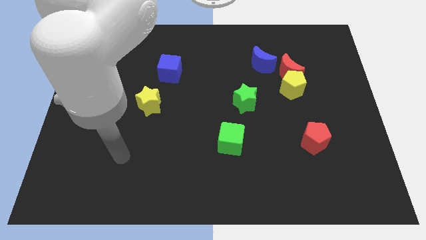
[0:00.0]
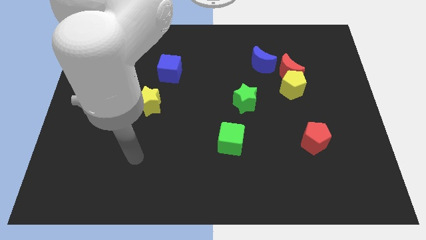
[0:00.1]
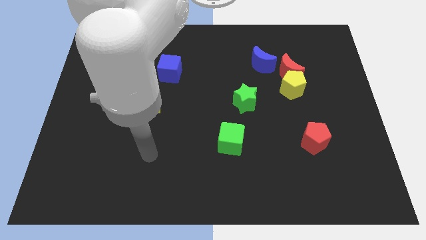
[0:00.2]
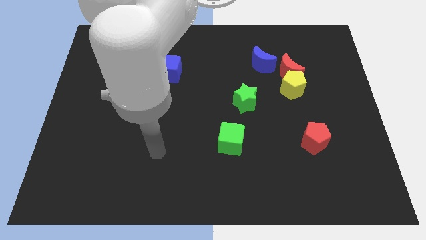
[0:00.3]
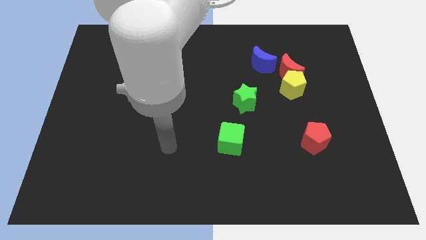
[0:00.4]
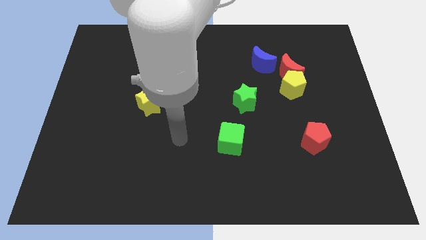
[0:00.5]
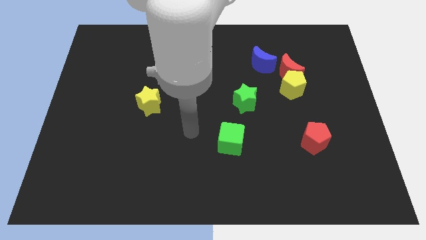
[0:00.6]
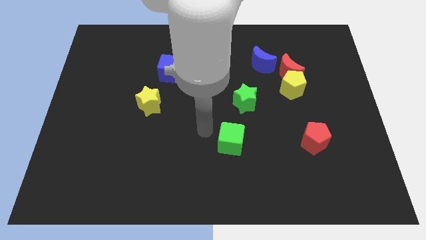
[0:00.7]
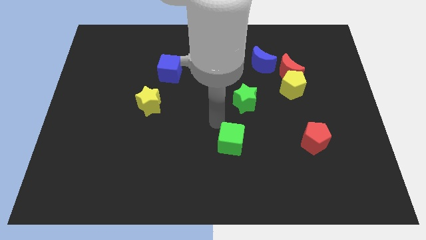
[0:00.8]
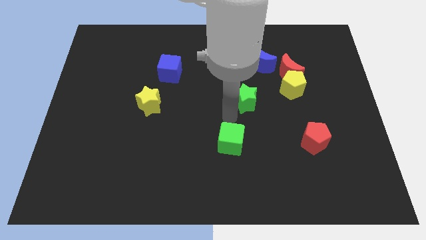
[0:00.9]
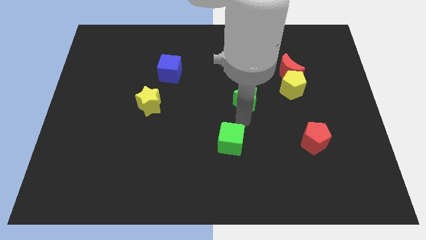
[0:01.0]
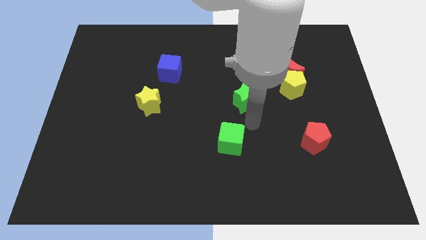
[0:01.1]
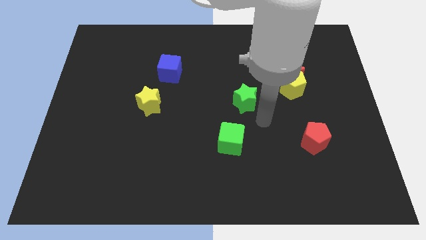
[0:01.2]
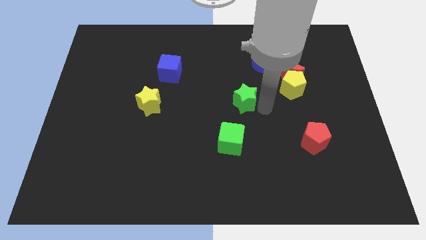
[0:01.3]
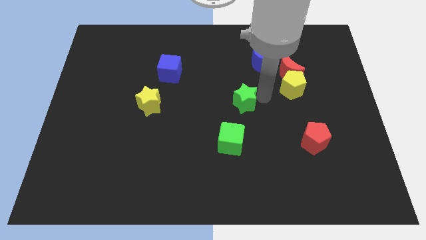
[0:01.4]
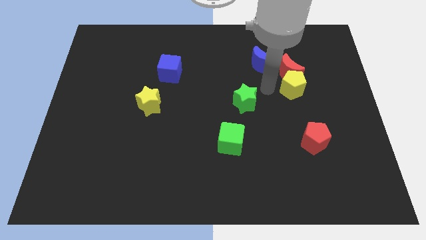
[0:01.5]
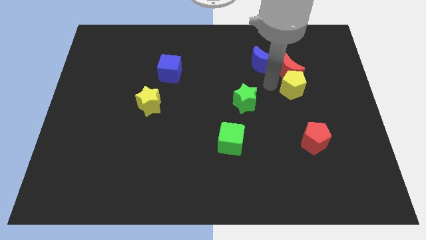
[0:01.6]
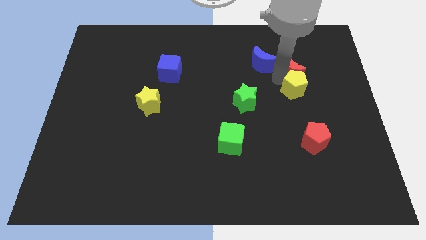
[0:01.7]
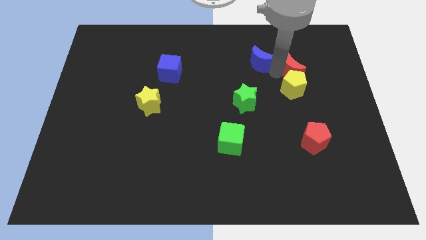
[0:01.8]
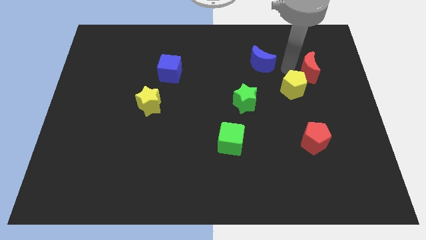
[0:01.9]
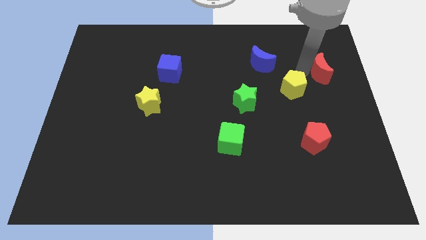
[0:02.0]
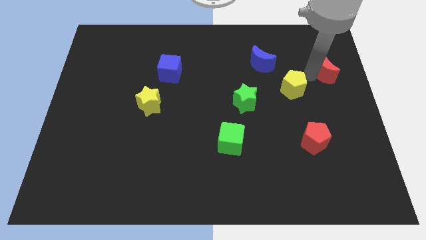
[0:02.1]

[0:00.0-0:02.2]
move the yellow pentagon away from the red moon

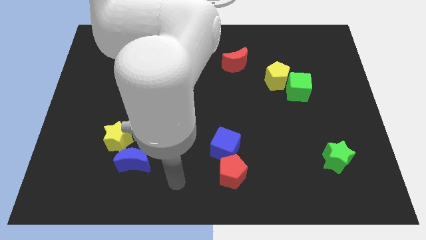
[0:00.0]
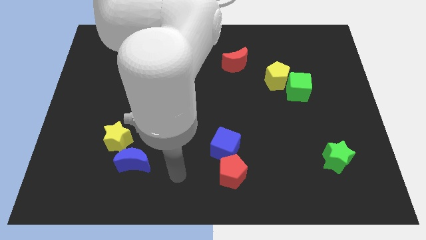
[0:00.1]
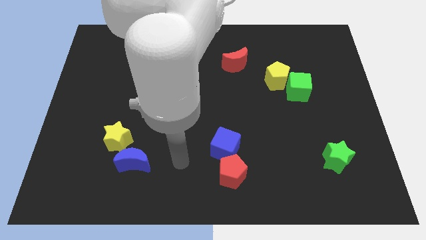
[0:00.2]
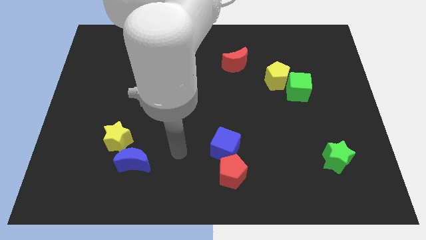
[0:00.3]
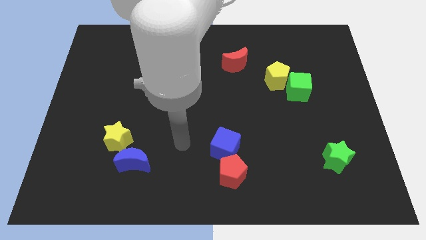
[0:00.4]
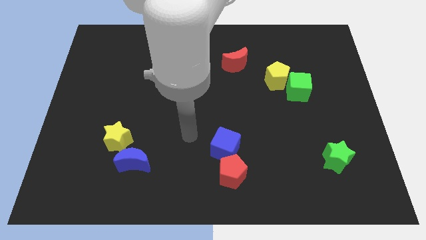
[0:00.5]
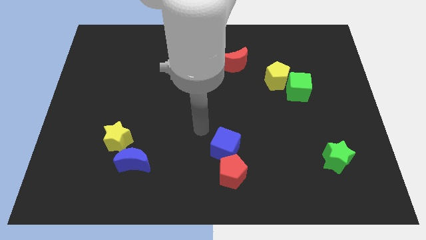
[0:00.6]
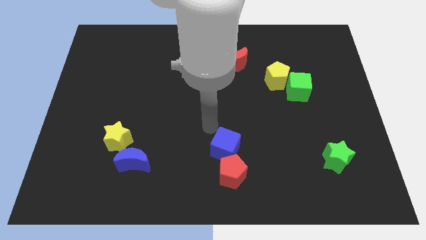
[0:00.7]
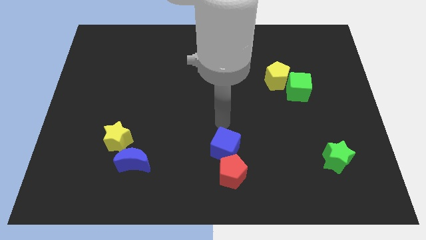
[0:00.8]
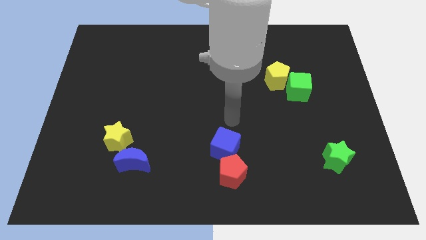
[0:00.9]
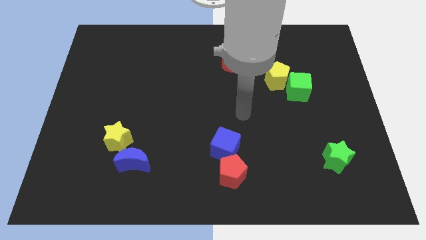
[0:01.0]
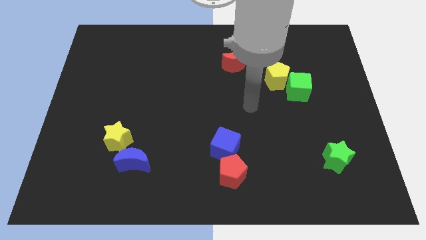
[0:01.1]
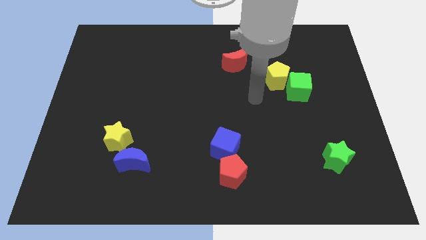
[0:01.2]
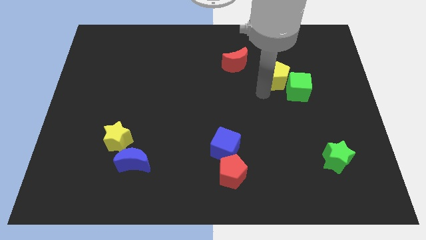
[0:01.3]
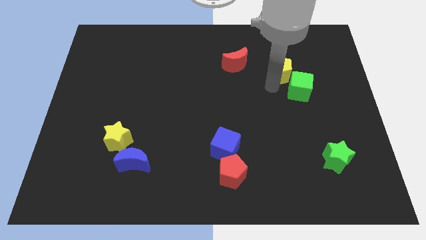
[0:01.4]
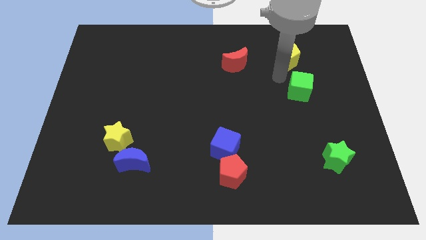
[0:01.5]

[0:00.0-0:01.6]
move the green cube away from the yellow pentagon

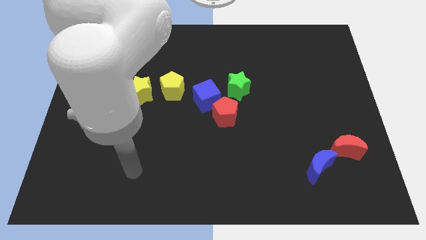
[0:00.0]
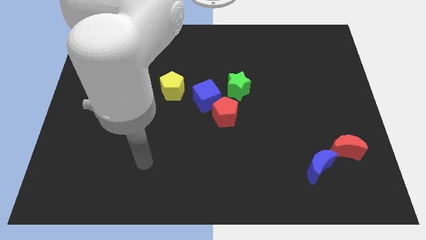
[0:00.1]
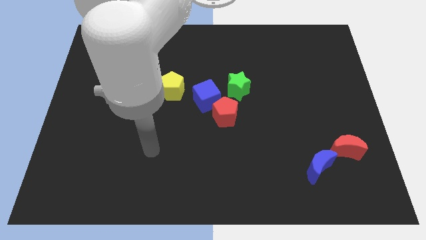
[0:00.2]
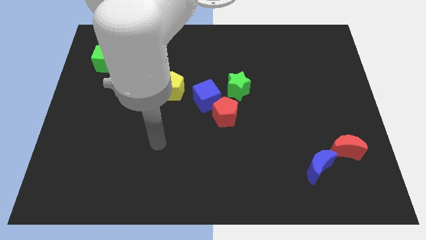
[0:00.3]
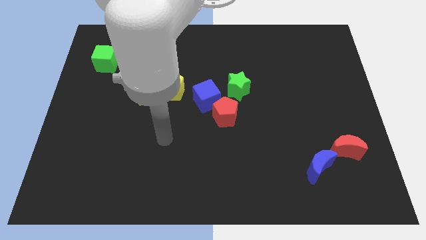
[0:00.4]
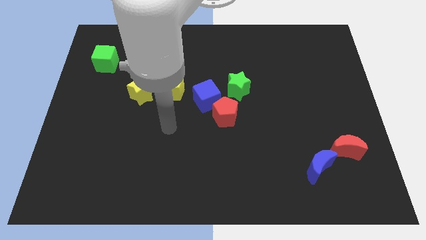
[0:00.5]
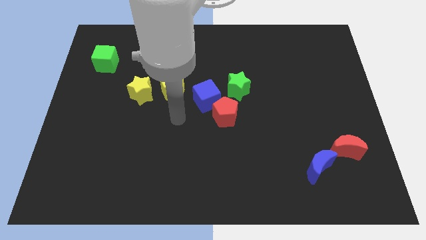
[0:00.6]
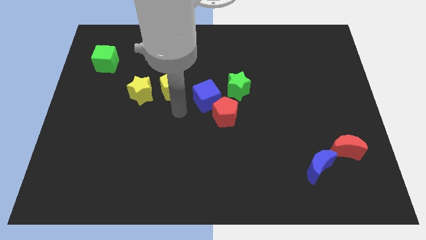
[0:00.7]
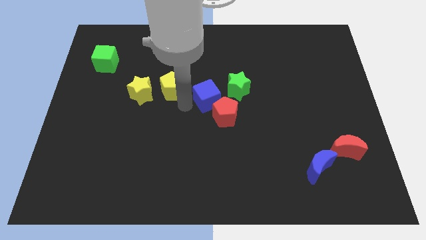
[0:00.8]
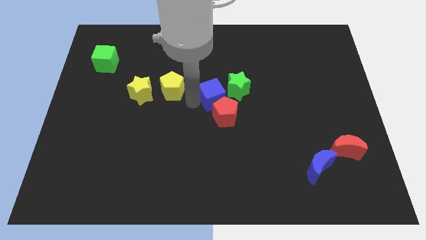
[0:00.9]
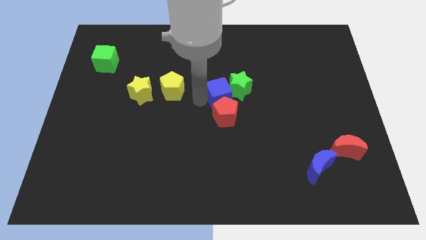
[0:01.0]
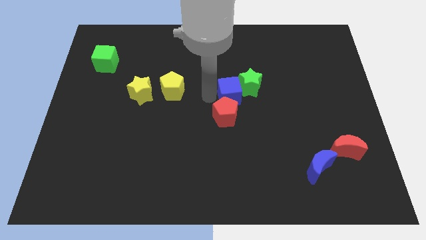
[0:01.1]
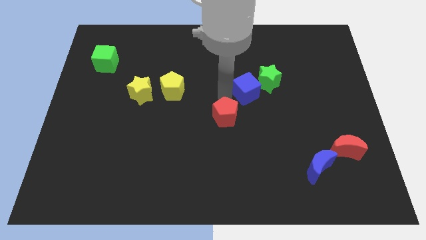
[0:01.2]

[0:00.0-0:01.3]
separate the red pentagon from the blue cube and green star

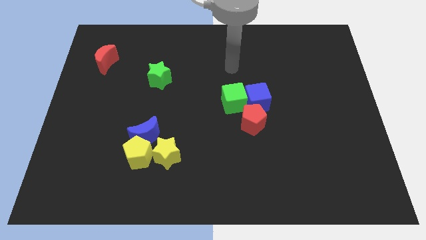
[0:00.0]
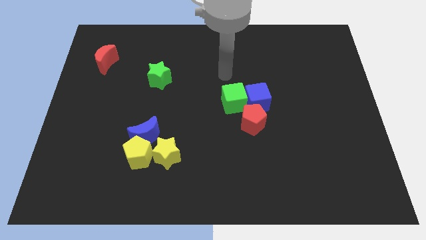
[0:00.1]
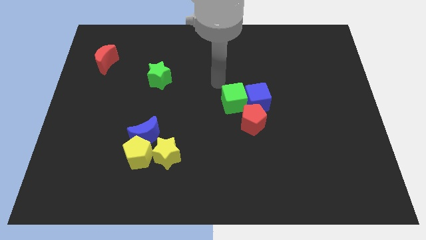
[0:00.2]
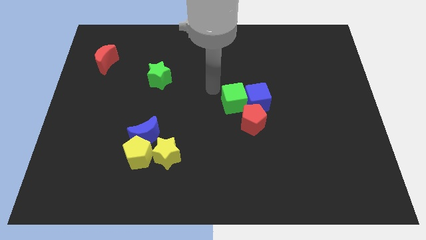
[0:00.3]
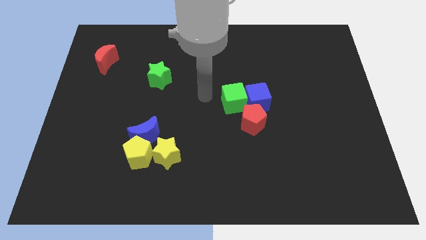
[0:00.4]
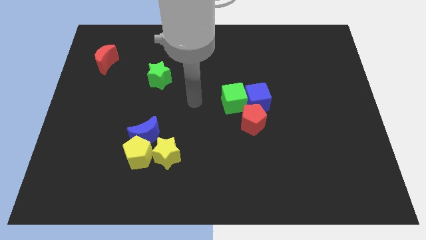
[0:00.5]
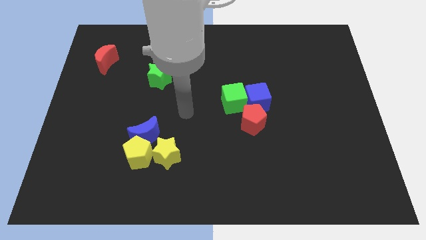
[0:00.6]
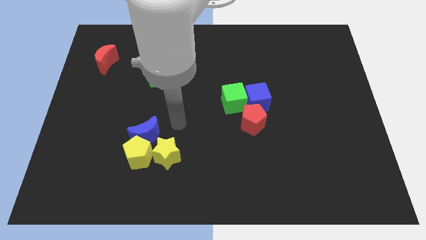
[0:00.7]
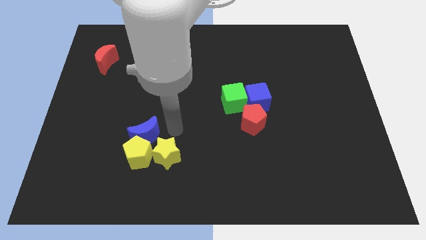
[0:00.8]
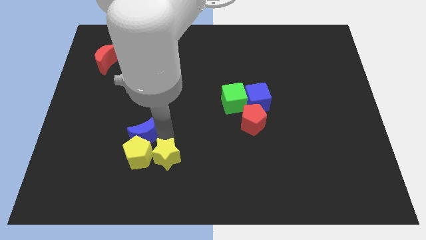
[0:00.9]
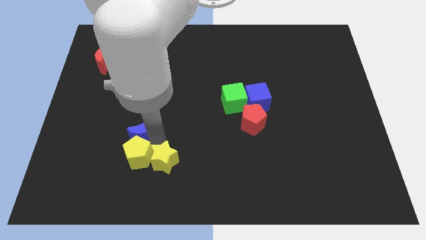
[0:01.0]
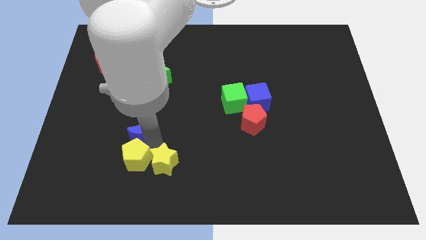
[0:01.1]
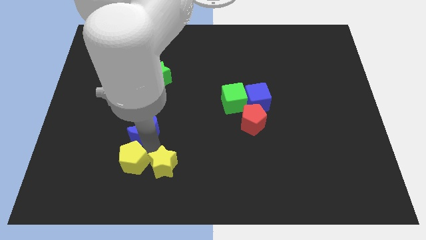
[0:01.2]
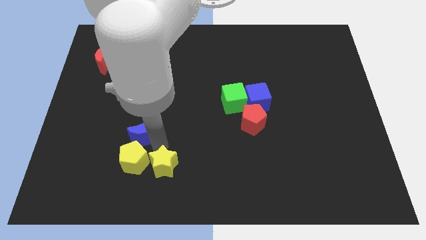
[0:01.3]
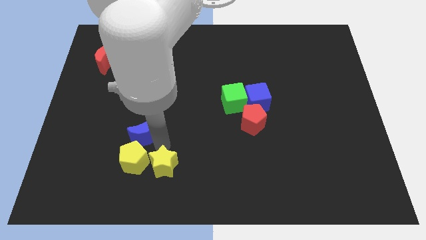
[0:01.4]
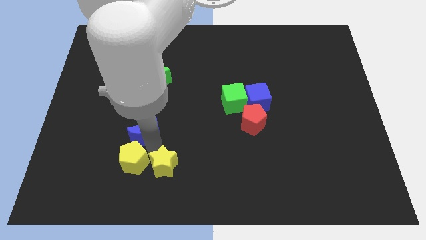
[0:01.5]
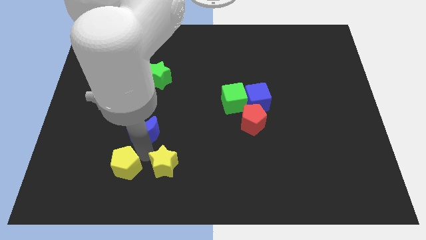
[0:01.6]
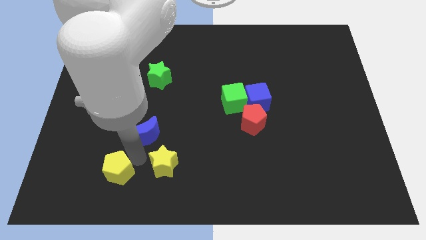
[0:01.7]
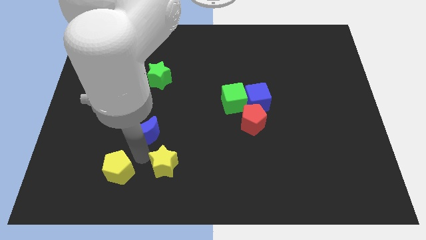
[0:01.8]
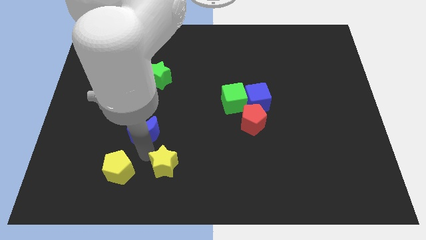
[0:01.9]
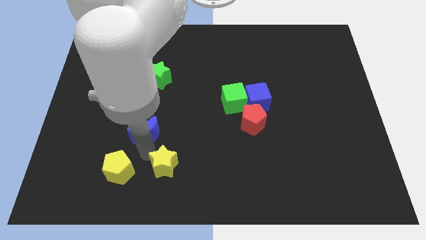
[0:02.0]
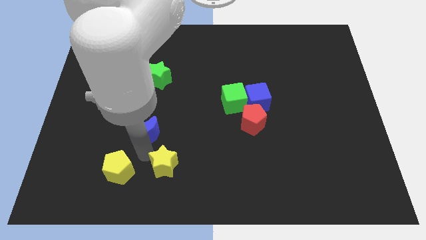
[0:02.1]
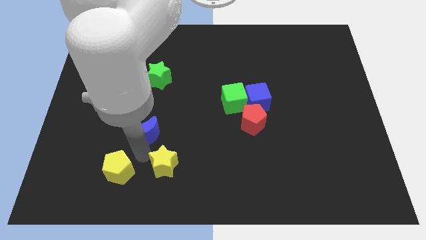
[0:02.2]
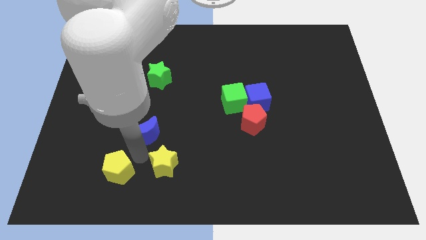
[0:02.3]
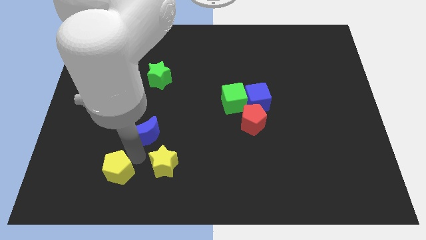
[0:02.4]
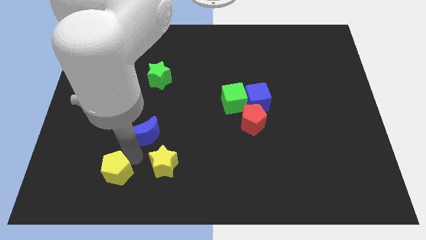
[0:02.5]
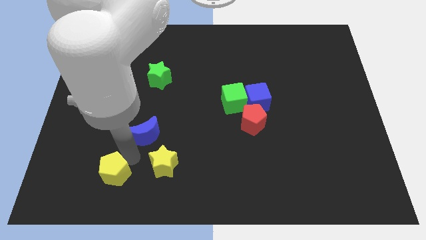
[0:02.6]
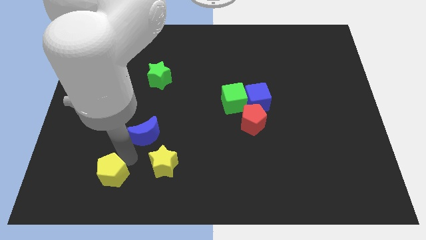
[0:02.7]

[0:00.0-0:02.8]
move the yellow pentagon away from the blue moon and yellow star

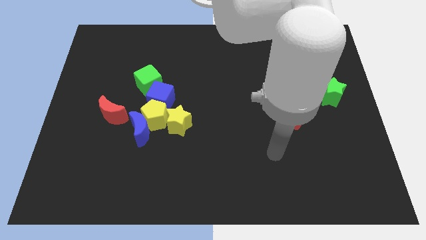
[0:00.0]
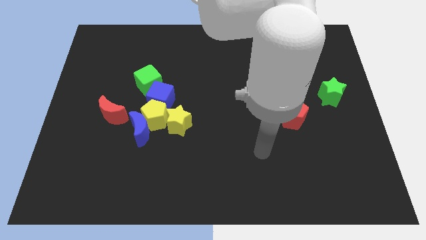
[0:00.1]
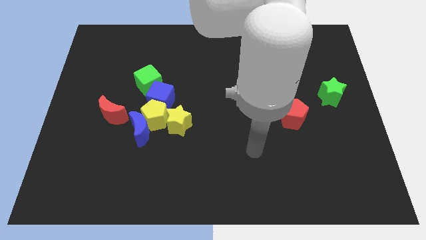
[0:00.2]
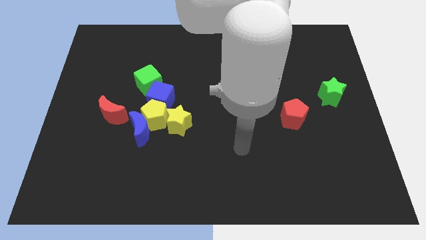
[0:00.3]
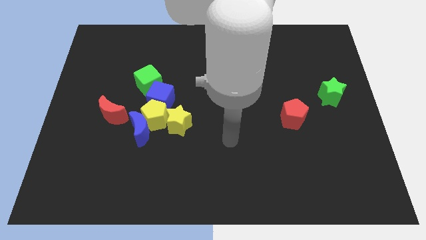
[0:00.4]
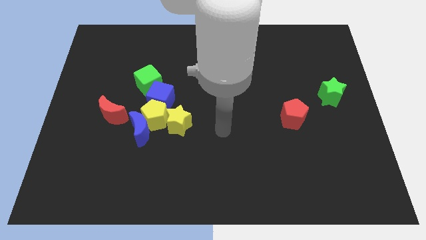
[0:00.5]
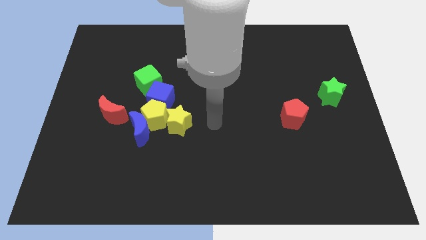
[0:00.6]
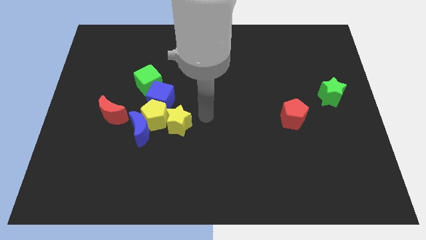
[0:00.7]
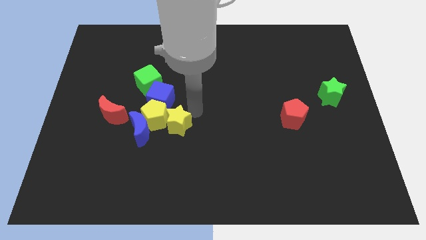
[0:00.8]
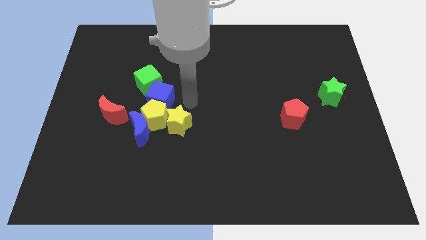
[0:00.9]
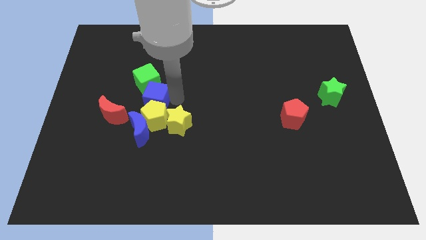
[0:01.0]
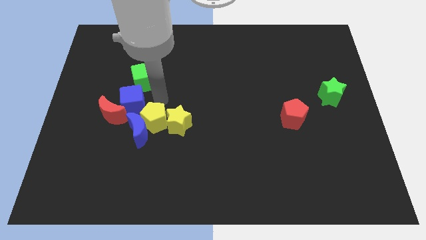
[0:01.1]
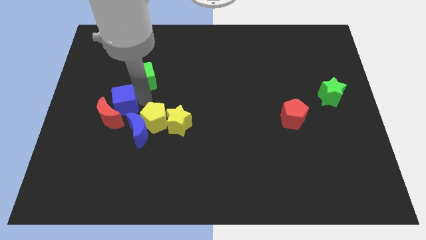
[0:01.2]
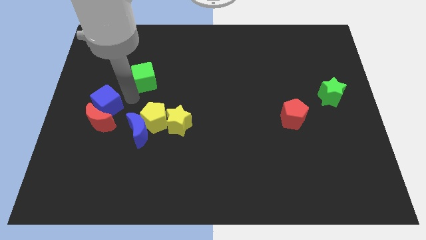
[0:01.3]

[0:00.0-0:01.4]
pull the green cube apart from the blue cube
